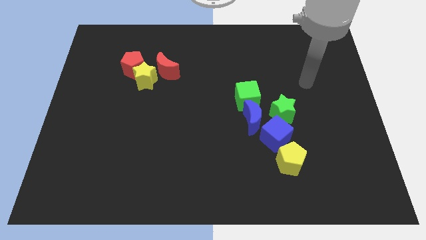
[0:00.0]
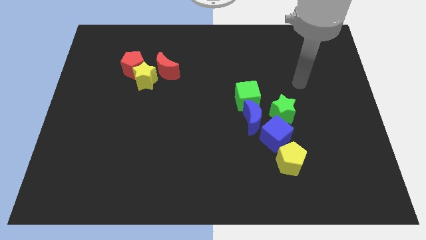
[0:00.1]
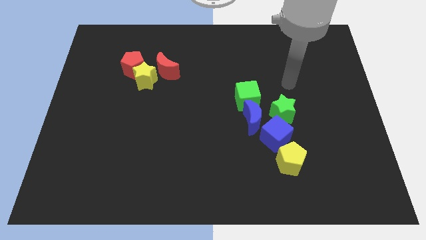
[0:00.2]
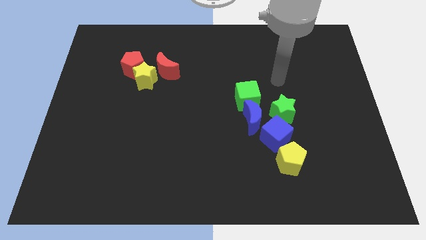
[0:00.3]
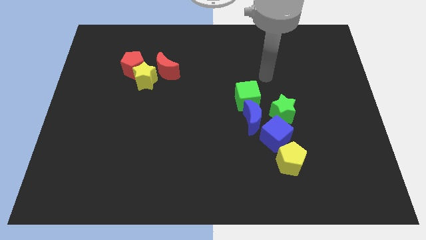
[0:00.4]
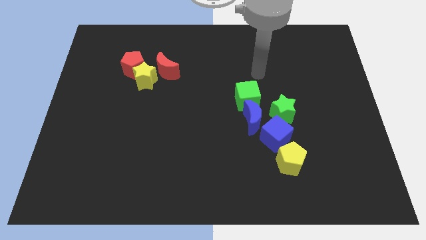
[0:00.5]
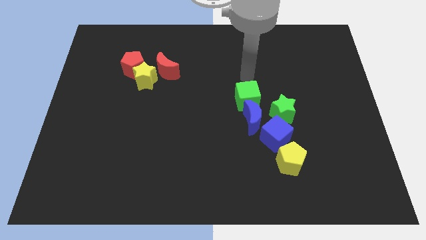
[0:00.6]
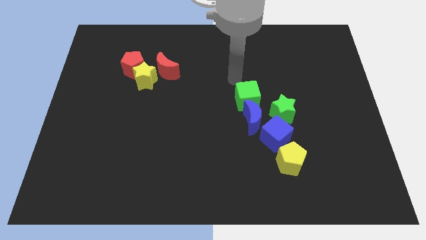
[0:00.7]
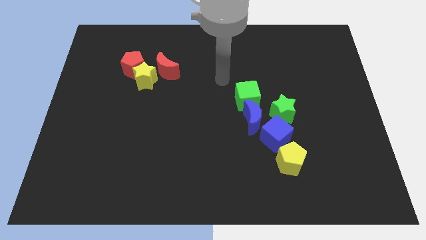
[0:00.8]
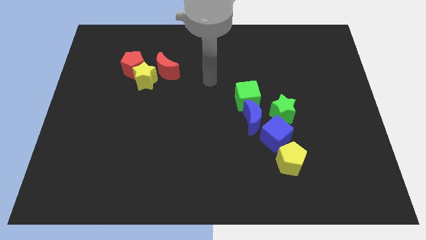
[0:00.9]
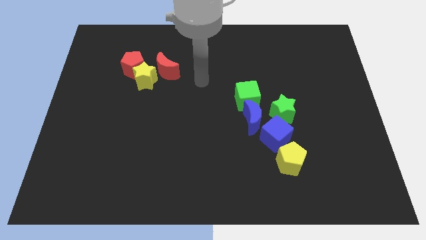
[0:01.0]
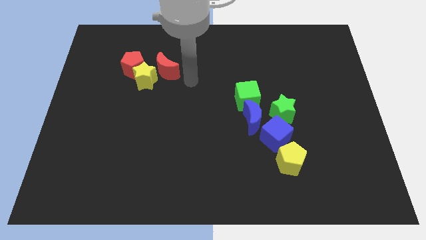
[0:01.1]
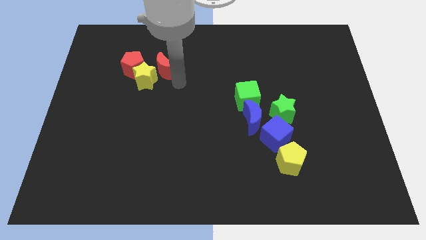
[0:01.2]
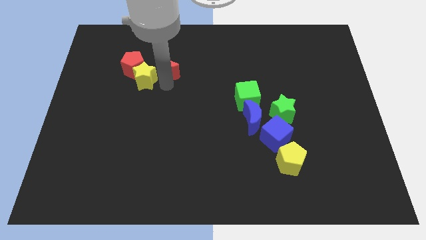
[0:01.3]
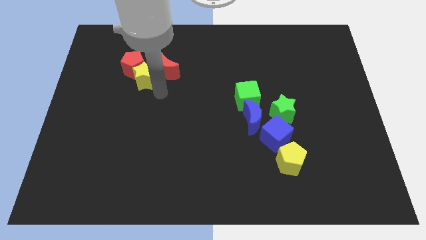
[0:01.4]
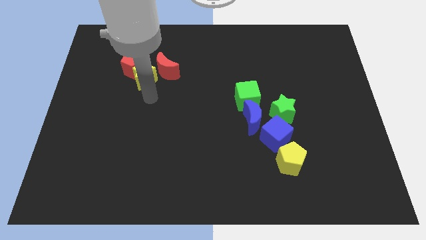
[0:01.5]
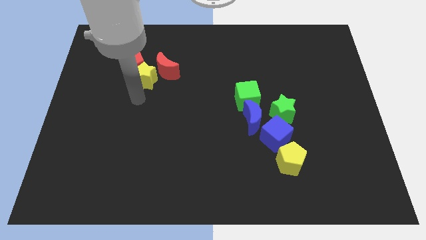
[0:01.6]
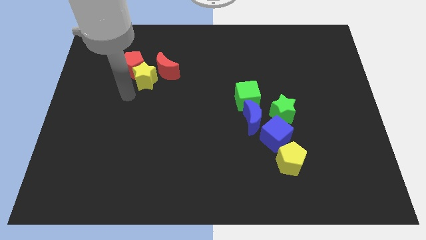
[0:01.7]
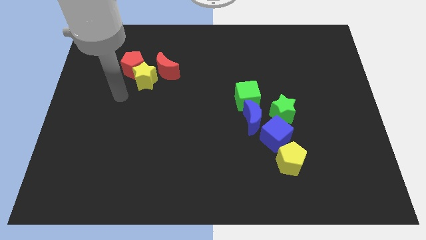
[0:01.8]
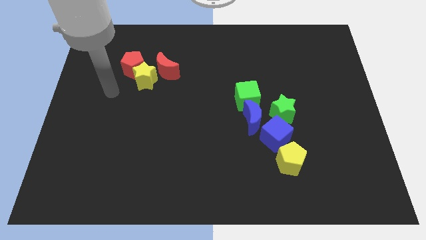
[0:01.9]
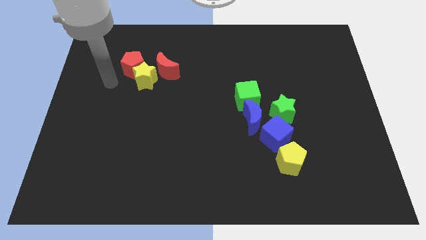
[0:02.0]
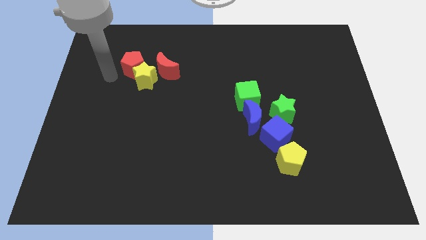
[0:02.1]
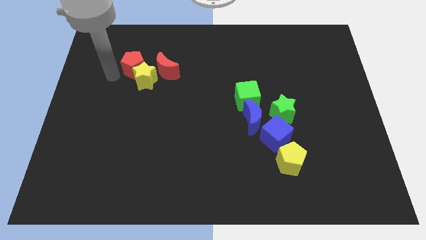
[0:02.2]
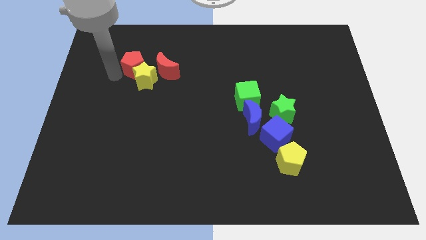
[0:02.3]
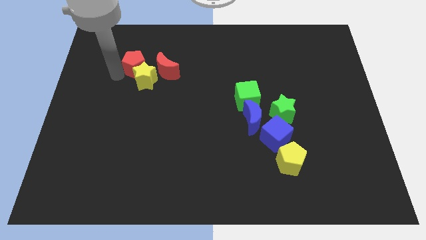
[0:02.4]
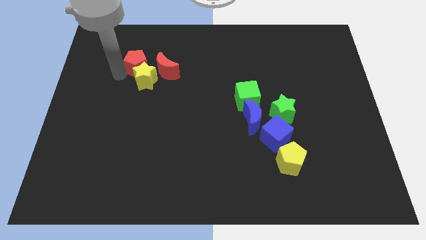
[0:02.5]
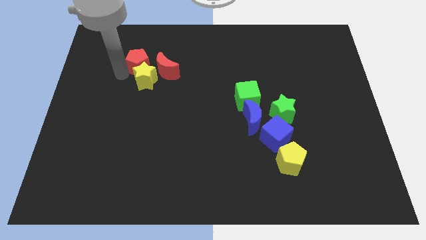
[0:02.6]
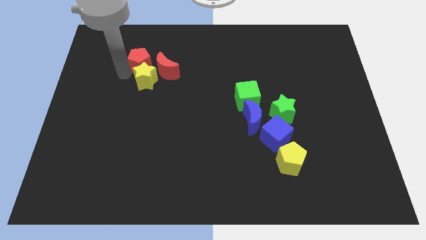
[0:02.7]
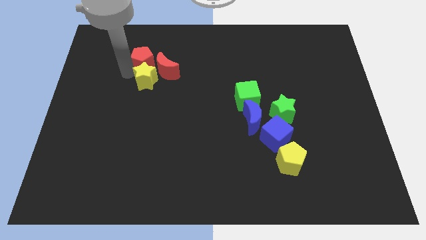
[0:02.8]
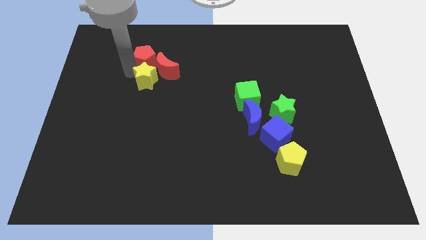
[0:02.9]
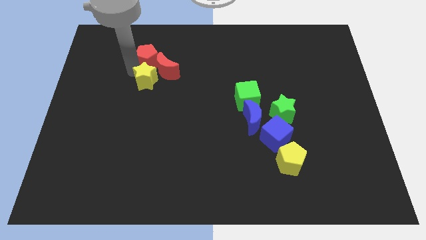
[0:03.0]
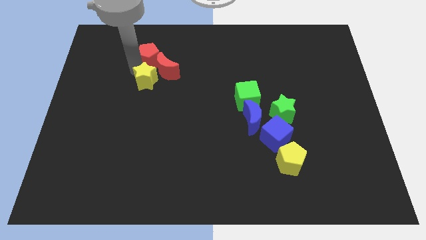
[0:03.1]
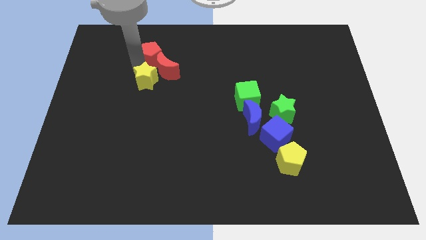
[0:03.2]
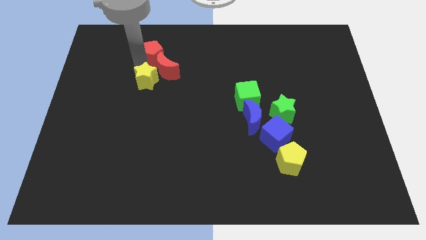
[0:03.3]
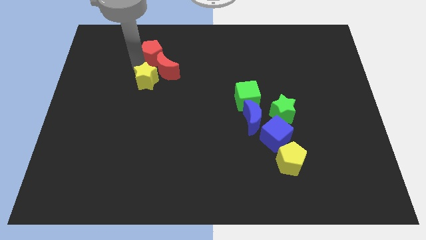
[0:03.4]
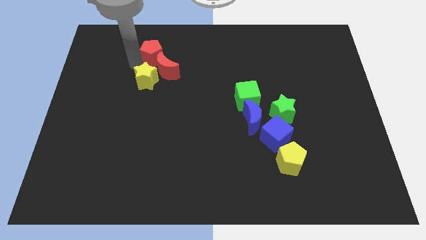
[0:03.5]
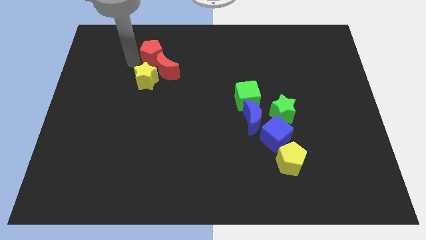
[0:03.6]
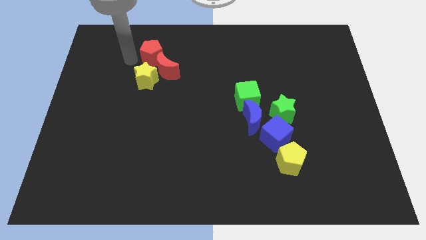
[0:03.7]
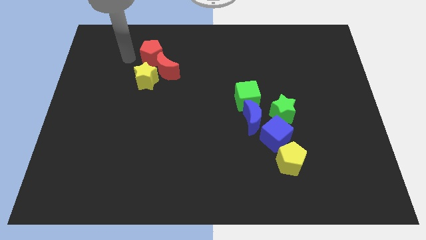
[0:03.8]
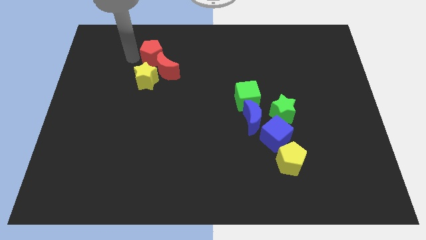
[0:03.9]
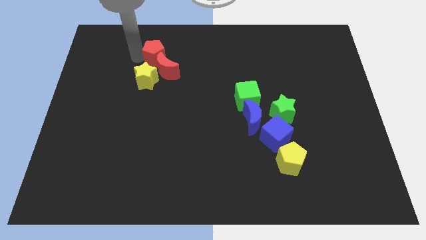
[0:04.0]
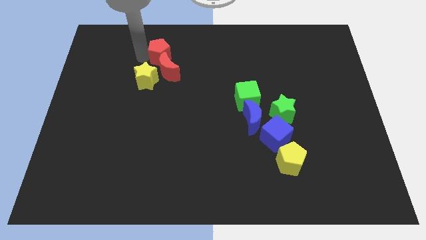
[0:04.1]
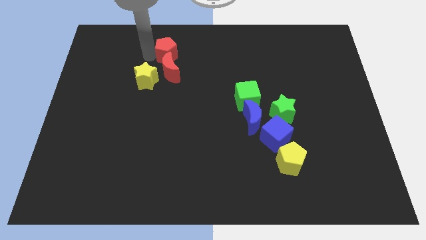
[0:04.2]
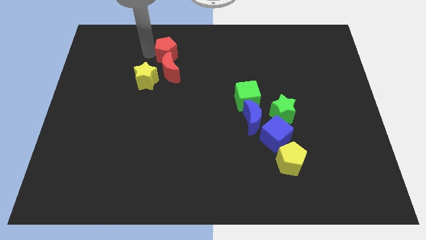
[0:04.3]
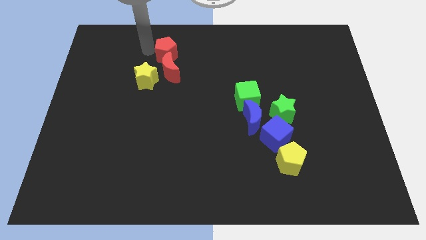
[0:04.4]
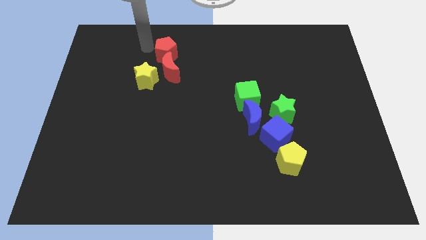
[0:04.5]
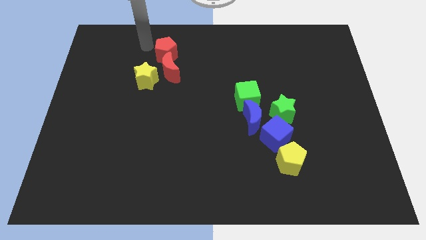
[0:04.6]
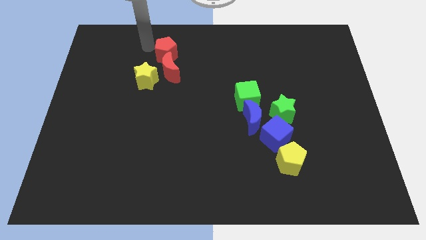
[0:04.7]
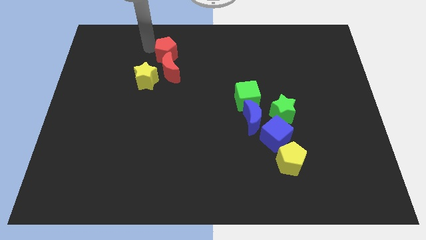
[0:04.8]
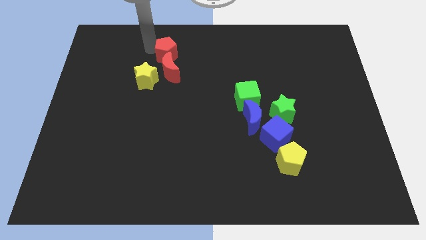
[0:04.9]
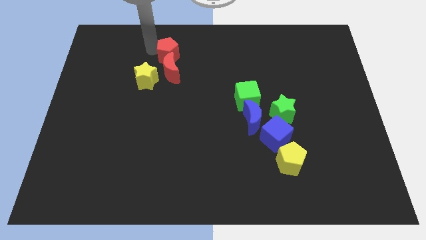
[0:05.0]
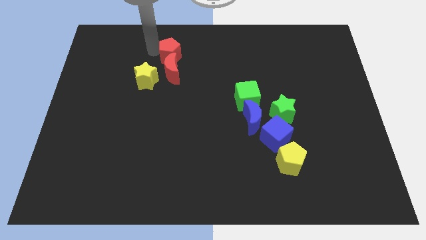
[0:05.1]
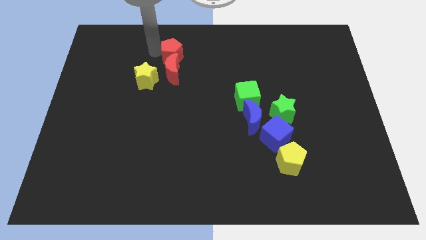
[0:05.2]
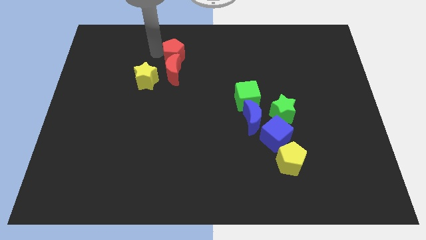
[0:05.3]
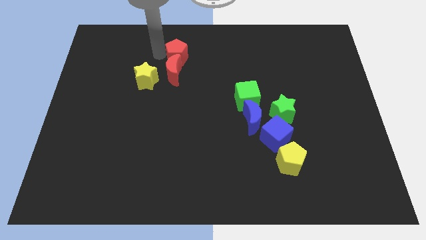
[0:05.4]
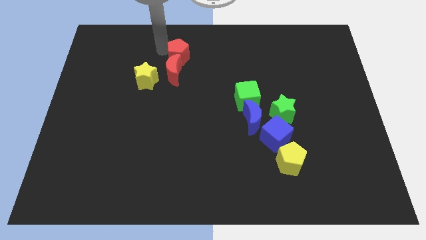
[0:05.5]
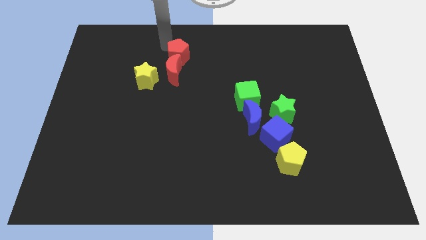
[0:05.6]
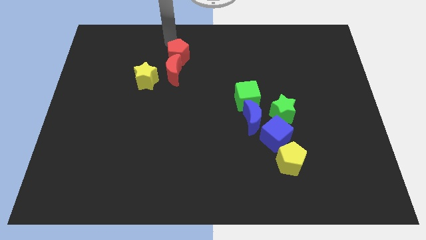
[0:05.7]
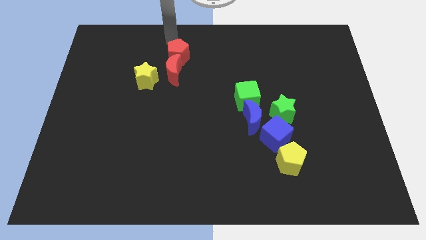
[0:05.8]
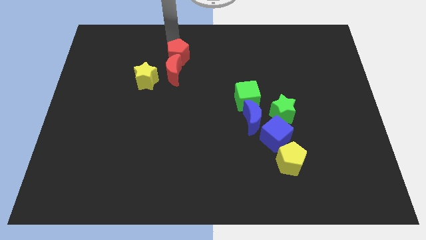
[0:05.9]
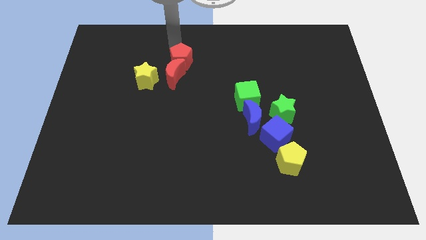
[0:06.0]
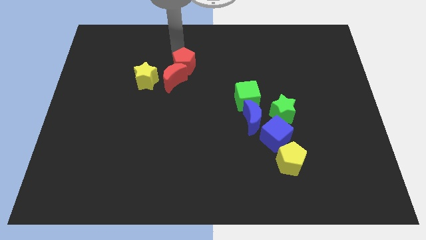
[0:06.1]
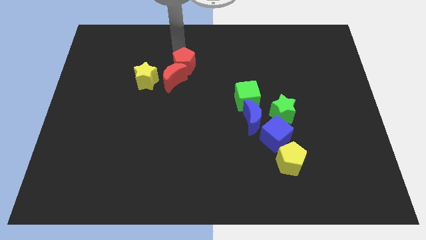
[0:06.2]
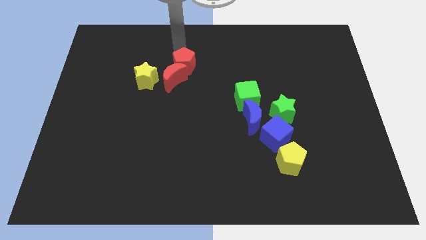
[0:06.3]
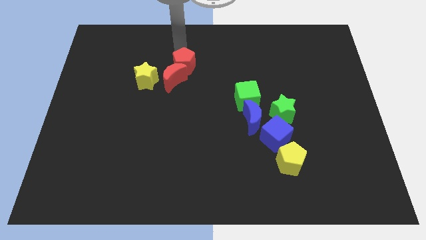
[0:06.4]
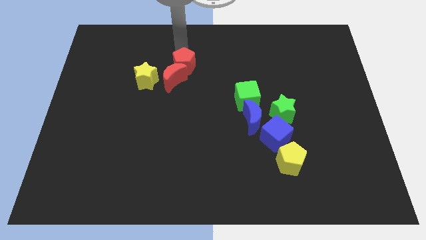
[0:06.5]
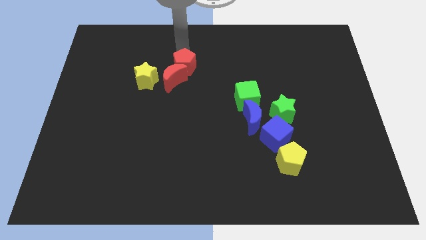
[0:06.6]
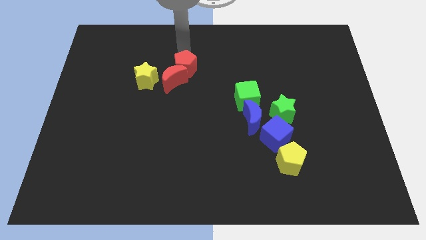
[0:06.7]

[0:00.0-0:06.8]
push the red pentagon just right of the yellow star

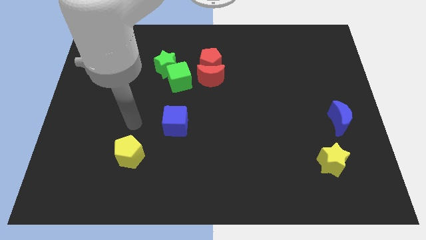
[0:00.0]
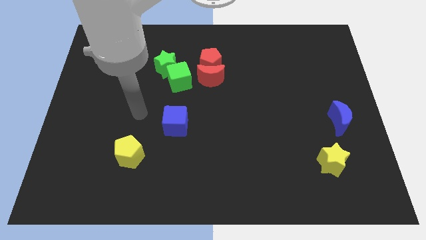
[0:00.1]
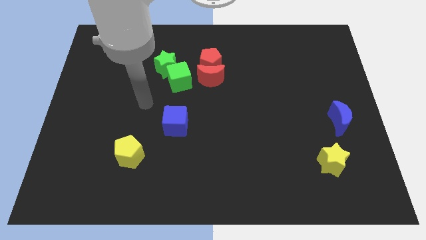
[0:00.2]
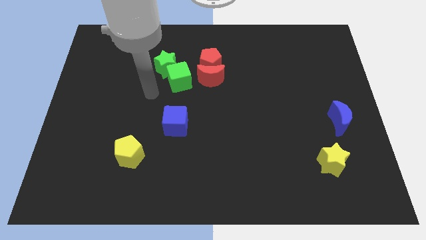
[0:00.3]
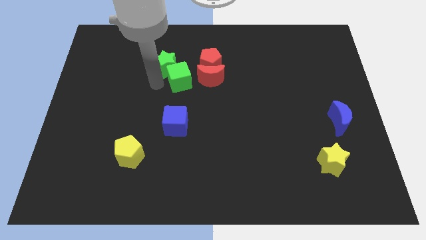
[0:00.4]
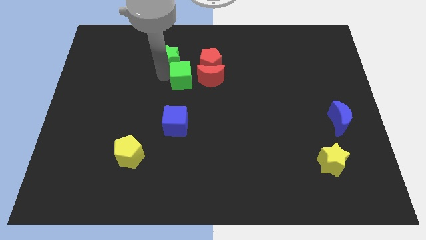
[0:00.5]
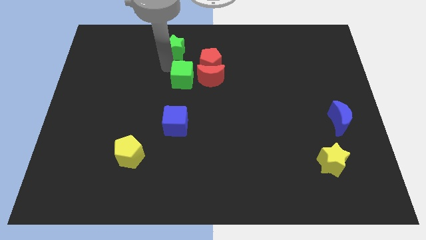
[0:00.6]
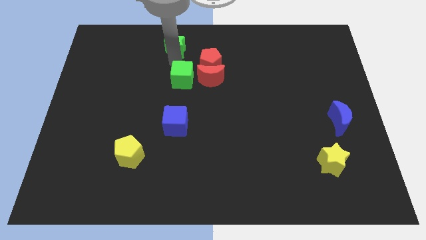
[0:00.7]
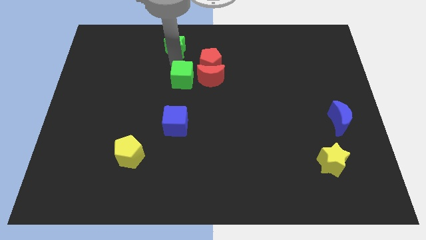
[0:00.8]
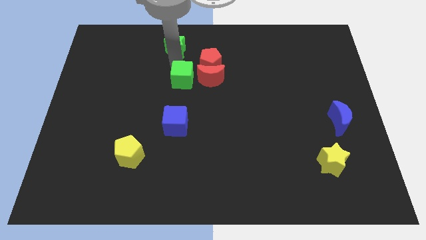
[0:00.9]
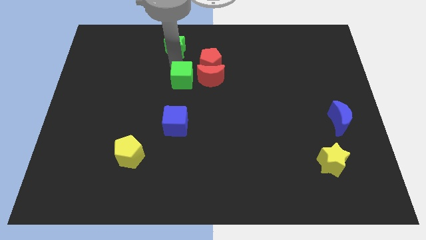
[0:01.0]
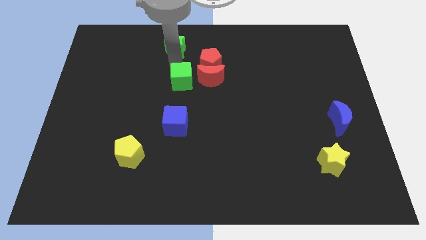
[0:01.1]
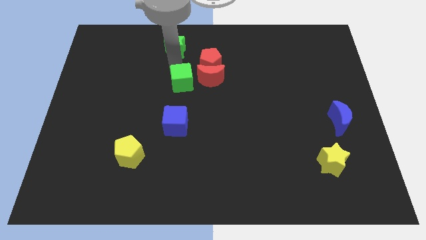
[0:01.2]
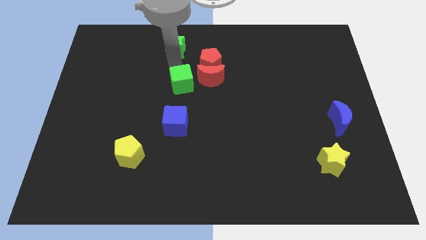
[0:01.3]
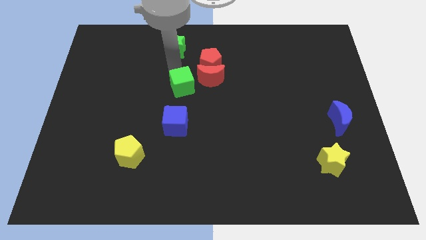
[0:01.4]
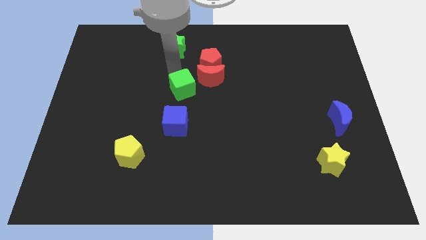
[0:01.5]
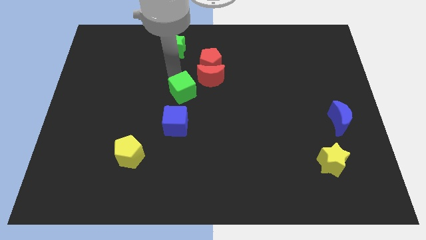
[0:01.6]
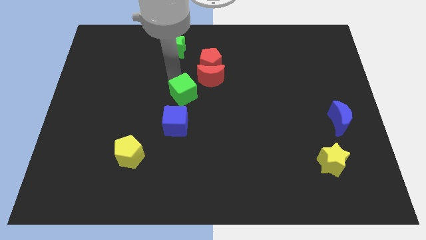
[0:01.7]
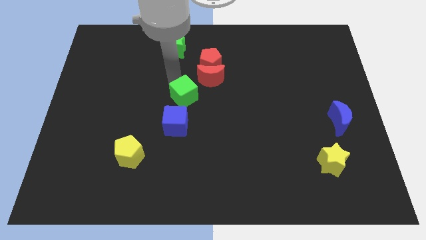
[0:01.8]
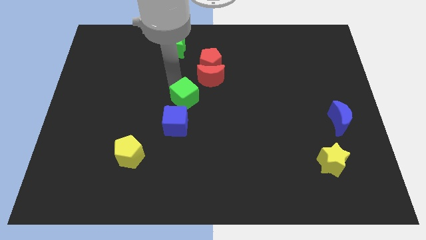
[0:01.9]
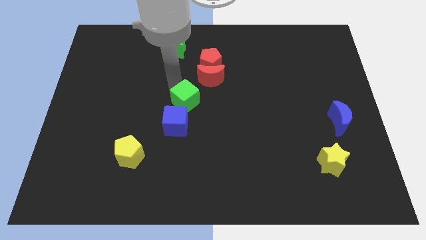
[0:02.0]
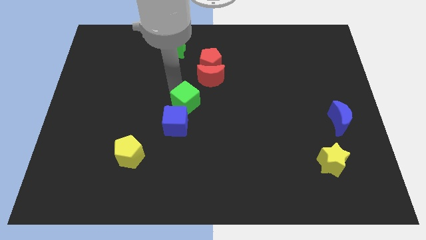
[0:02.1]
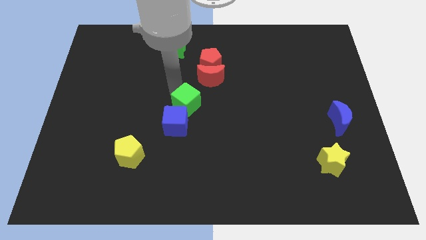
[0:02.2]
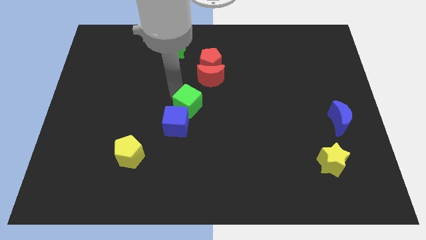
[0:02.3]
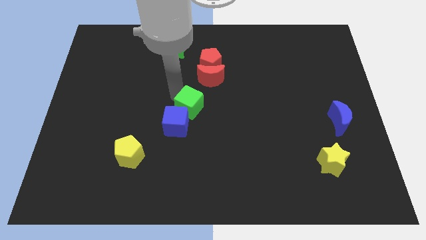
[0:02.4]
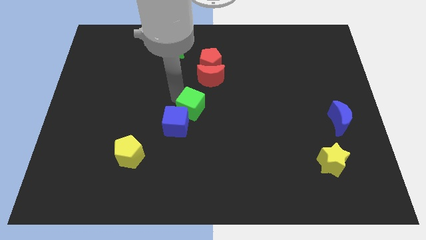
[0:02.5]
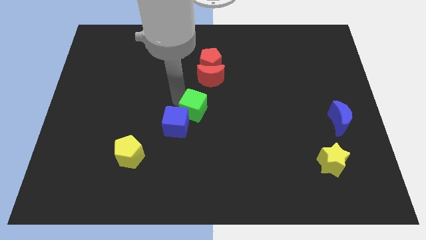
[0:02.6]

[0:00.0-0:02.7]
slide the green cube to the right of the blue cube
